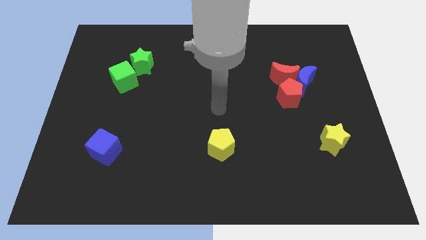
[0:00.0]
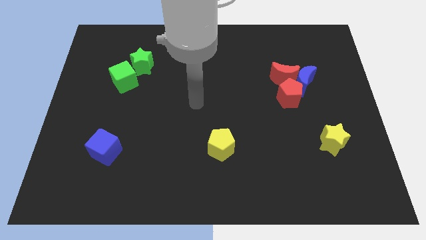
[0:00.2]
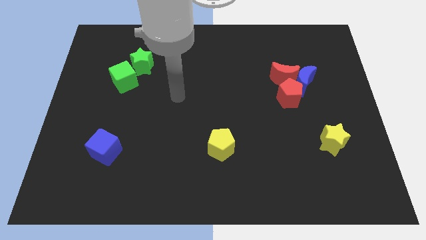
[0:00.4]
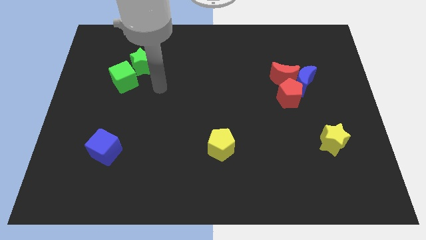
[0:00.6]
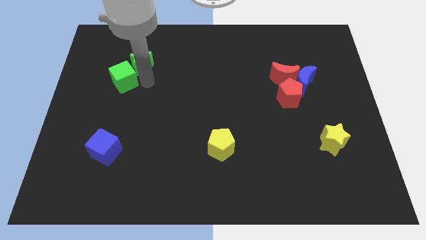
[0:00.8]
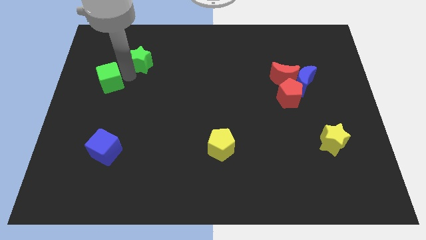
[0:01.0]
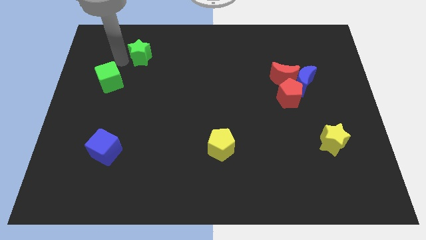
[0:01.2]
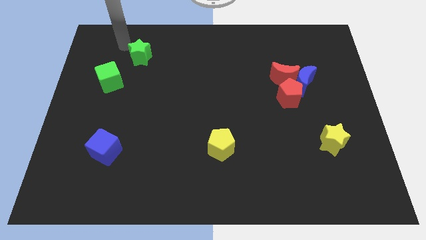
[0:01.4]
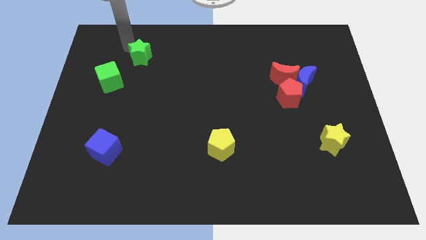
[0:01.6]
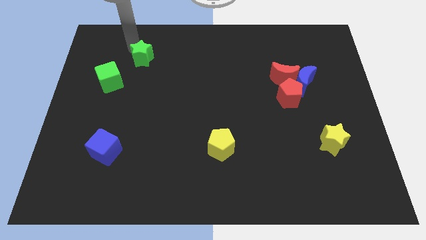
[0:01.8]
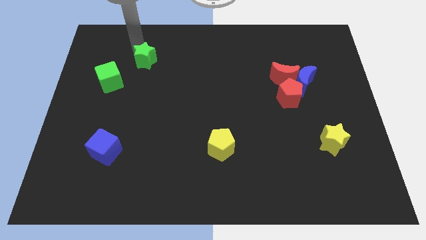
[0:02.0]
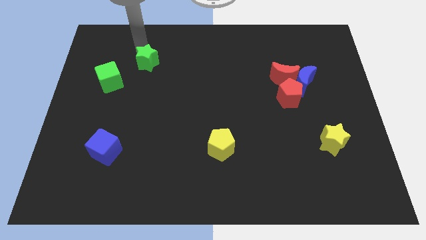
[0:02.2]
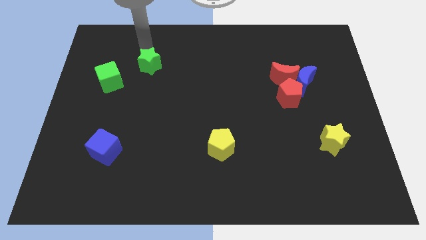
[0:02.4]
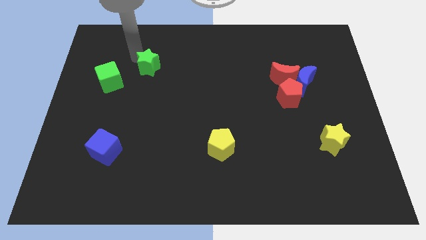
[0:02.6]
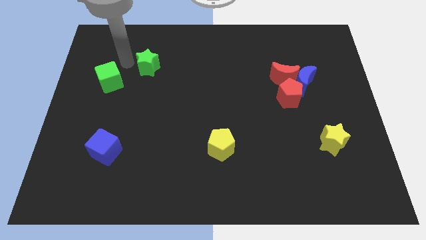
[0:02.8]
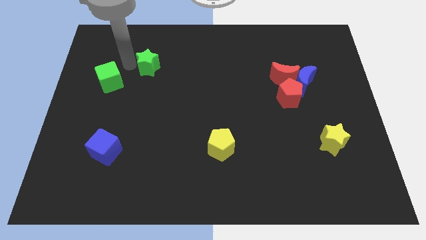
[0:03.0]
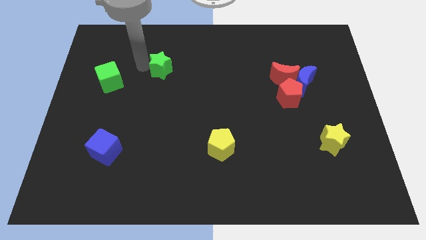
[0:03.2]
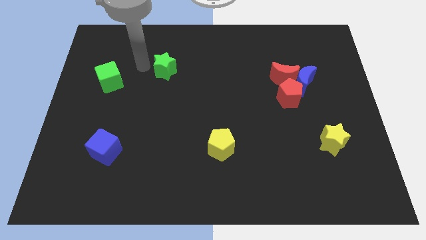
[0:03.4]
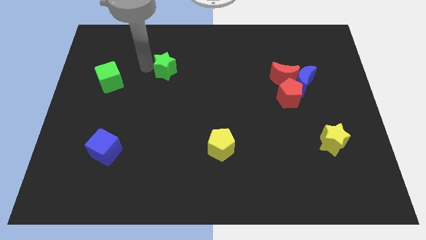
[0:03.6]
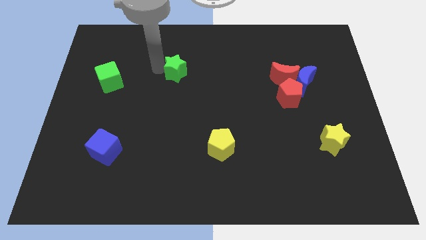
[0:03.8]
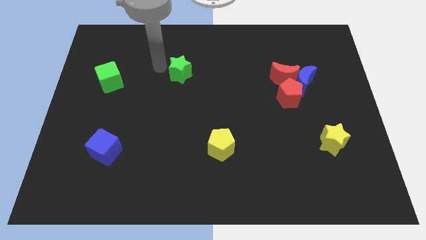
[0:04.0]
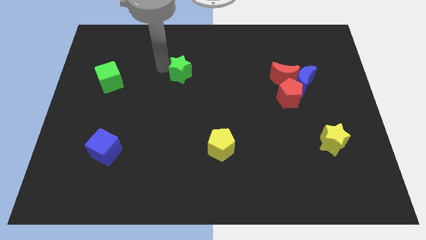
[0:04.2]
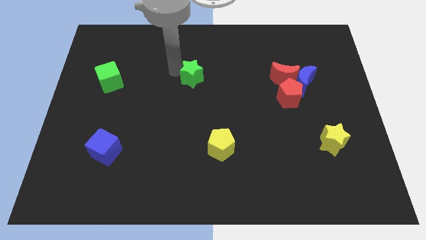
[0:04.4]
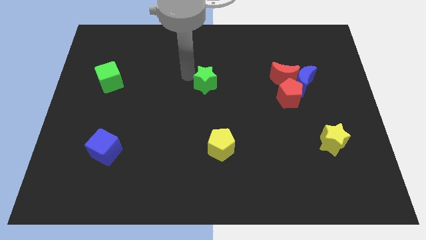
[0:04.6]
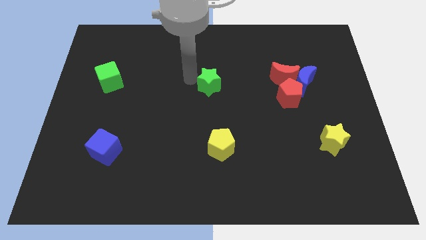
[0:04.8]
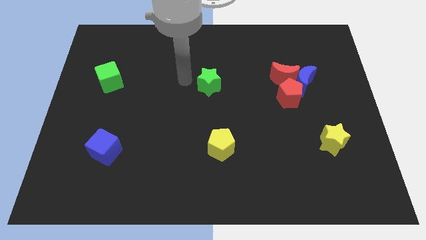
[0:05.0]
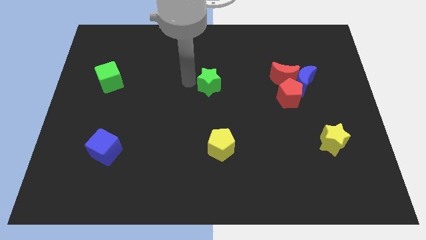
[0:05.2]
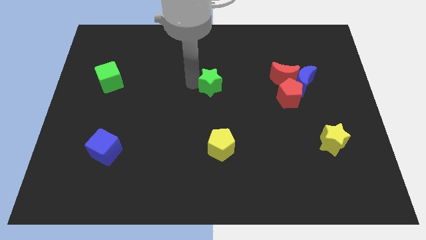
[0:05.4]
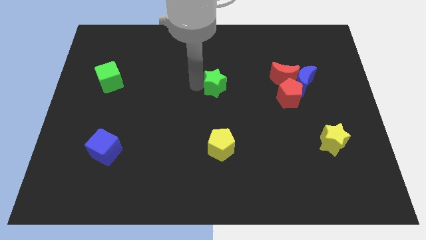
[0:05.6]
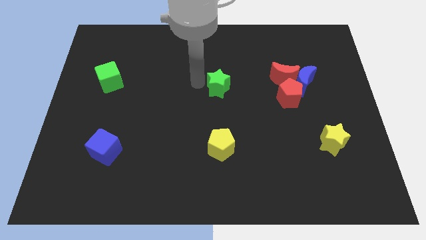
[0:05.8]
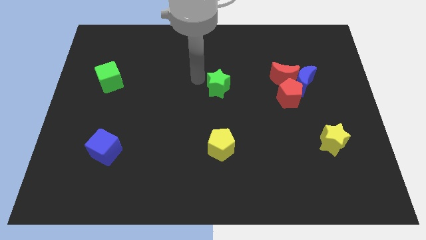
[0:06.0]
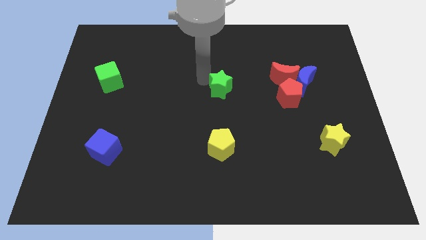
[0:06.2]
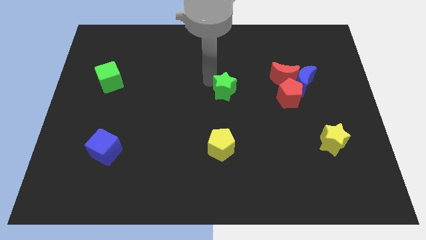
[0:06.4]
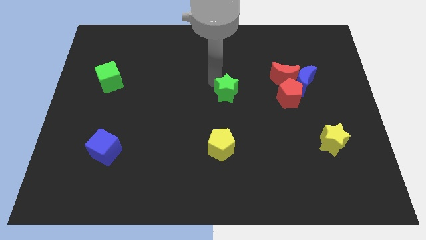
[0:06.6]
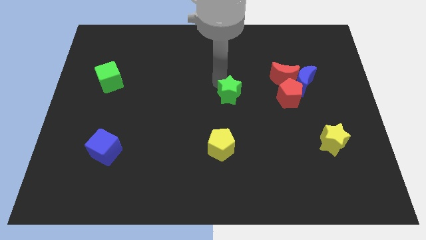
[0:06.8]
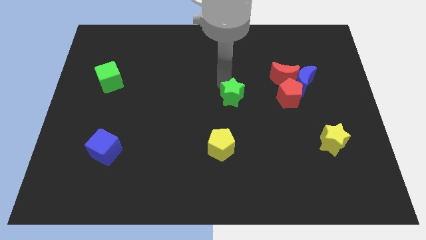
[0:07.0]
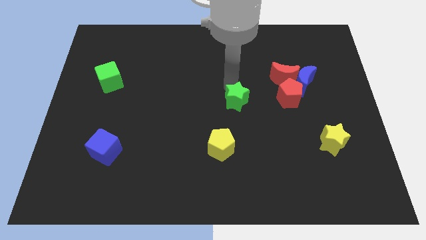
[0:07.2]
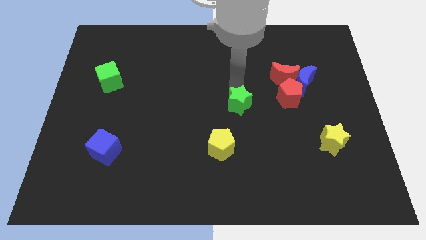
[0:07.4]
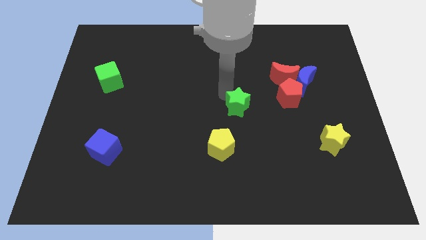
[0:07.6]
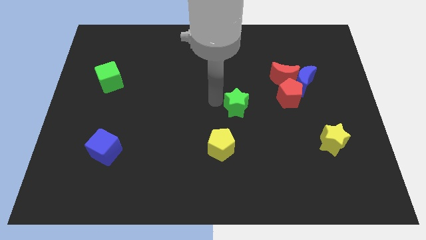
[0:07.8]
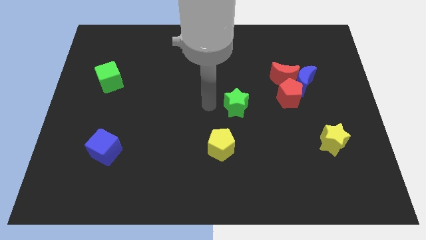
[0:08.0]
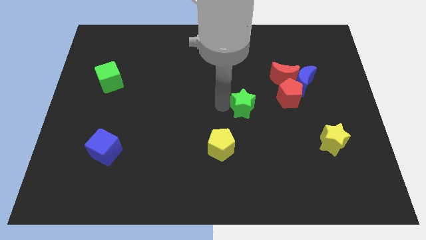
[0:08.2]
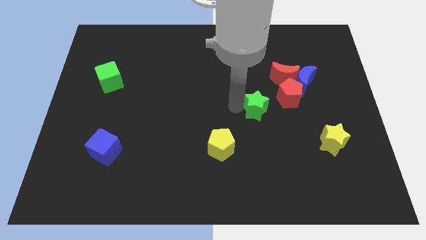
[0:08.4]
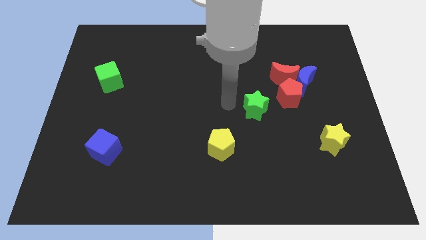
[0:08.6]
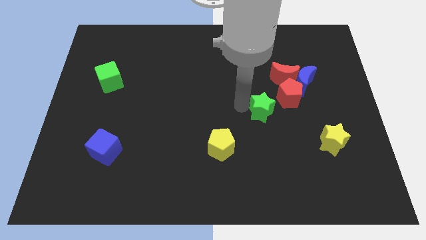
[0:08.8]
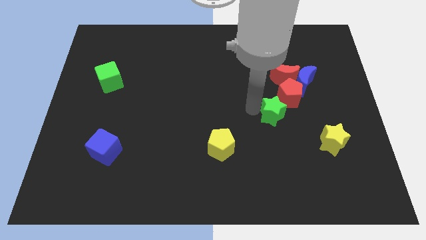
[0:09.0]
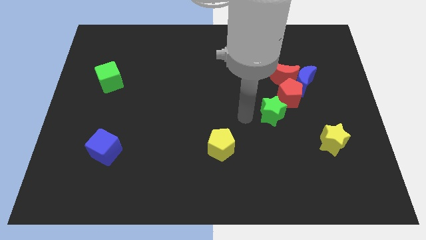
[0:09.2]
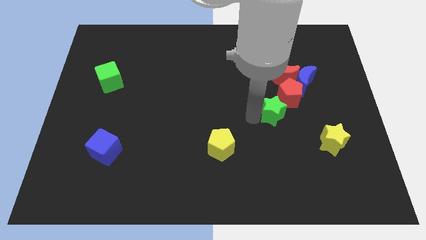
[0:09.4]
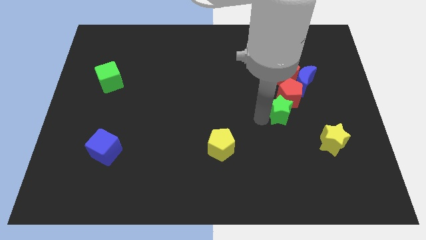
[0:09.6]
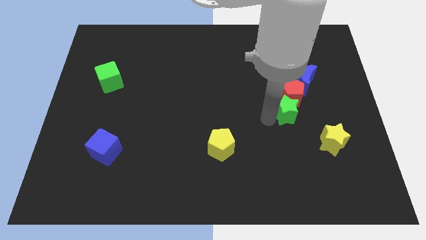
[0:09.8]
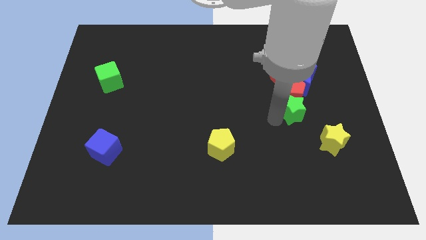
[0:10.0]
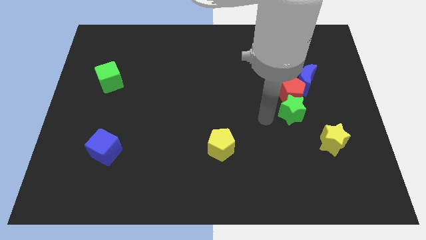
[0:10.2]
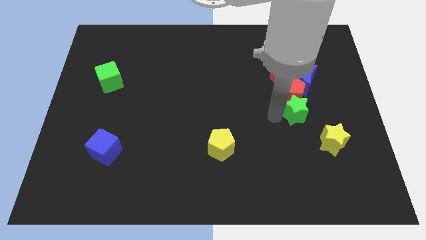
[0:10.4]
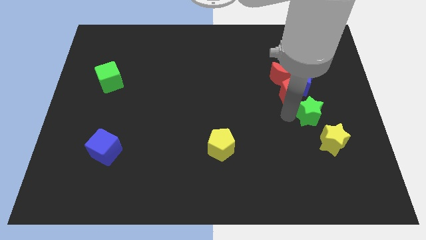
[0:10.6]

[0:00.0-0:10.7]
put the green star above the yellow star

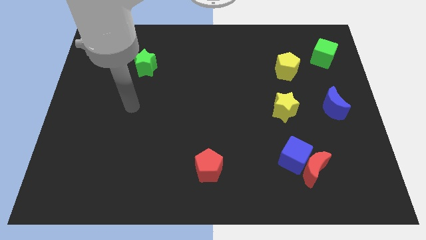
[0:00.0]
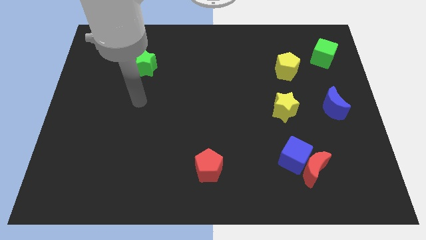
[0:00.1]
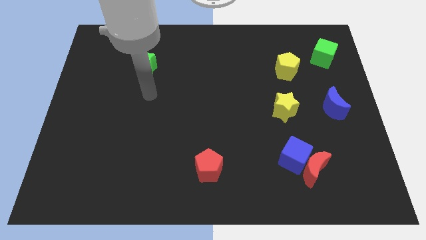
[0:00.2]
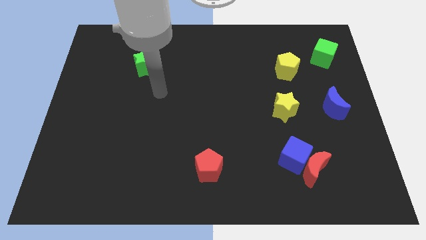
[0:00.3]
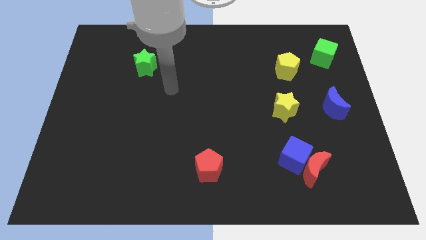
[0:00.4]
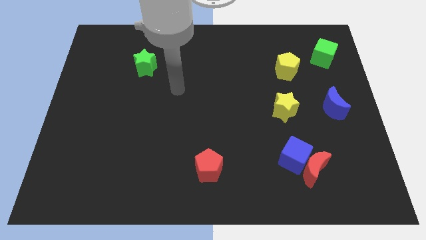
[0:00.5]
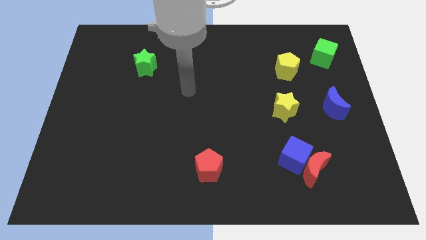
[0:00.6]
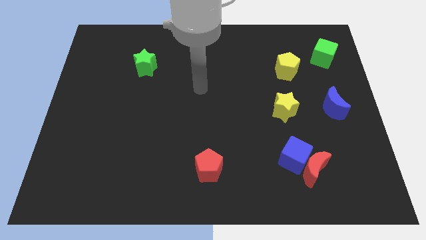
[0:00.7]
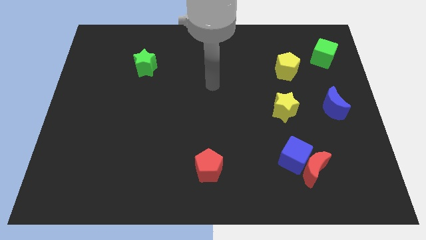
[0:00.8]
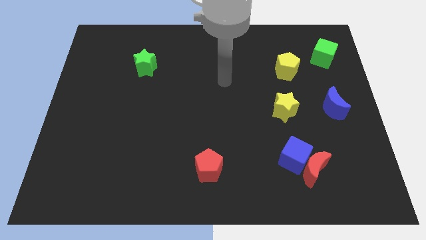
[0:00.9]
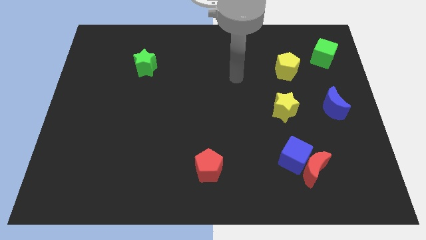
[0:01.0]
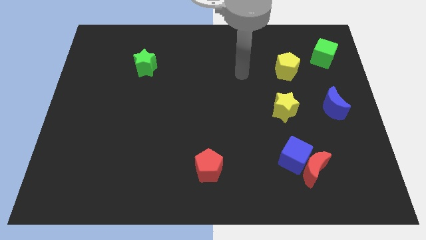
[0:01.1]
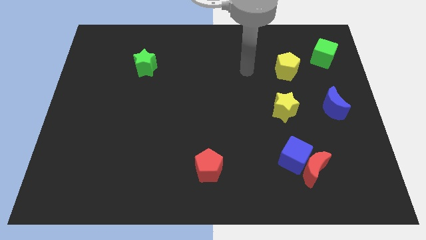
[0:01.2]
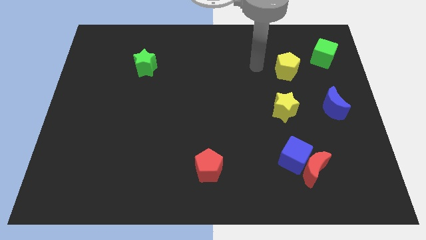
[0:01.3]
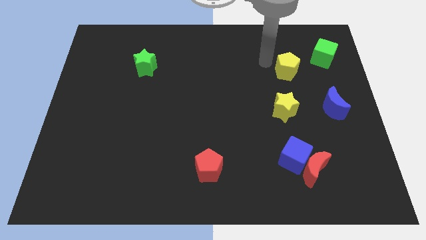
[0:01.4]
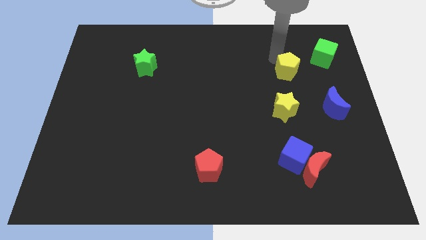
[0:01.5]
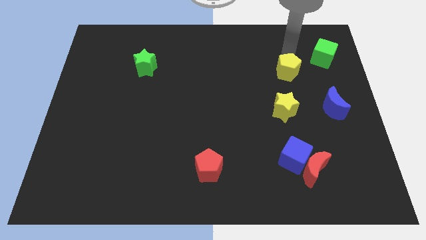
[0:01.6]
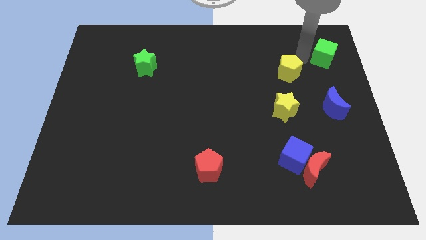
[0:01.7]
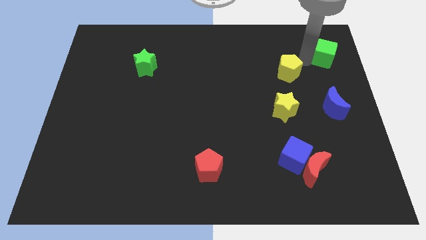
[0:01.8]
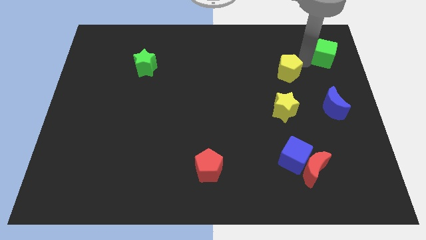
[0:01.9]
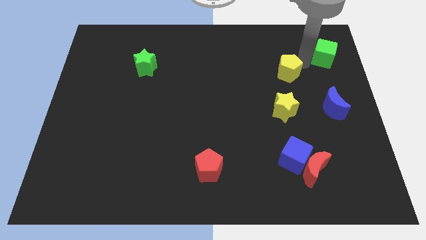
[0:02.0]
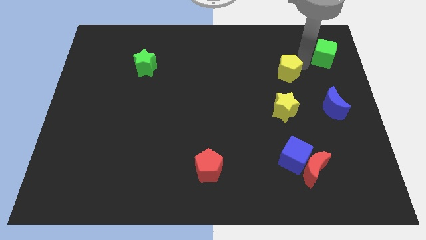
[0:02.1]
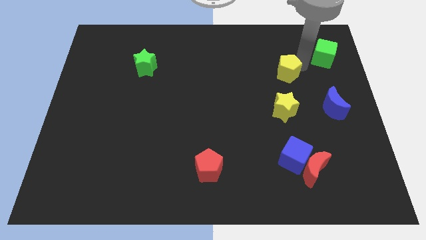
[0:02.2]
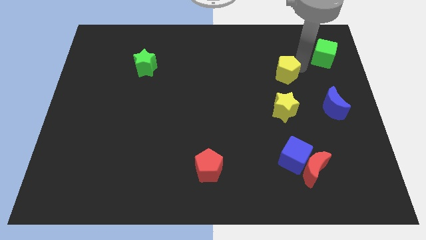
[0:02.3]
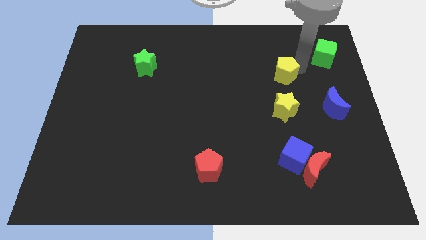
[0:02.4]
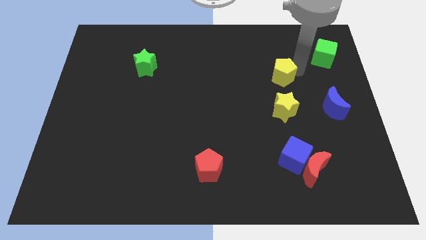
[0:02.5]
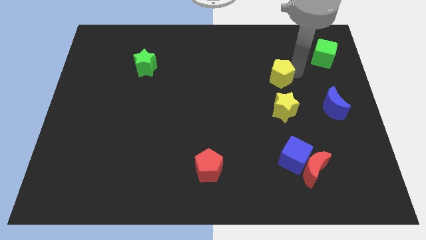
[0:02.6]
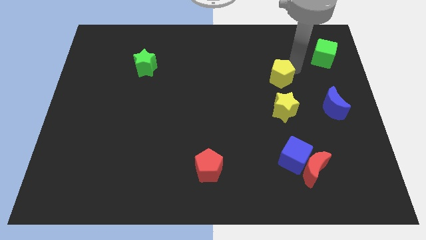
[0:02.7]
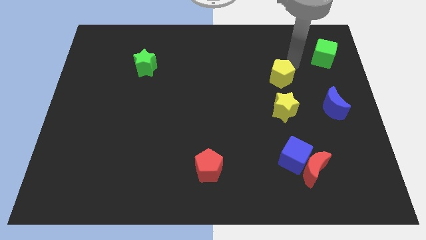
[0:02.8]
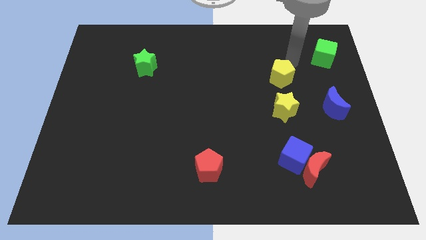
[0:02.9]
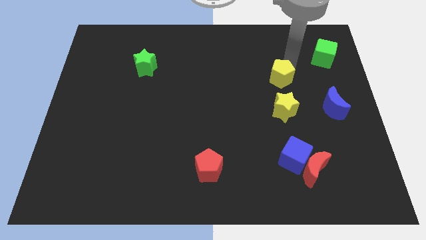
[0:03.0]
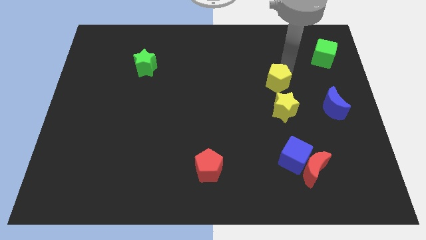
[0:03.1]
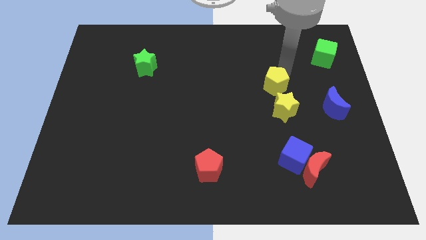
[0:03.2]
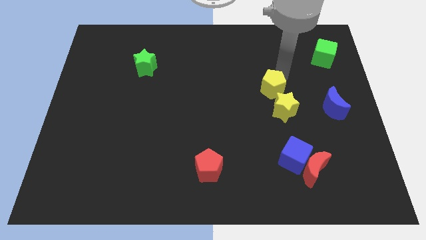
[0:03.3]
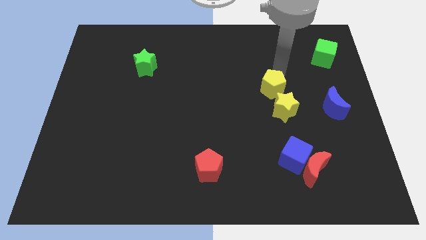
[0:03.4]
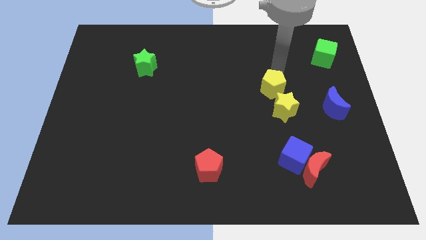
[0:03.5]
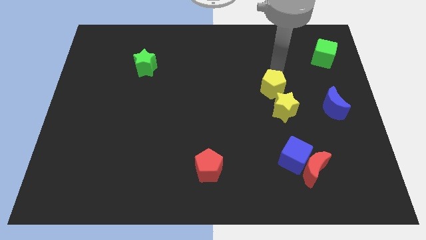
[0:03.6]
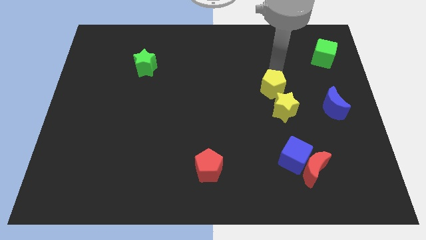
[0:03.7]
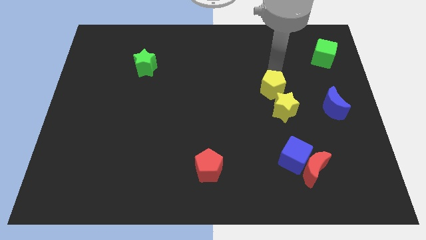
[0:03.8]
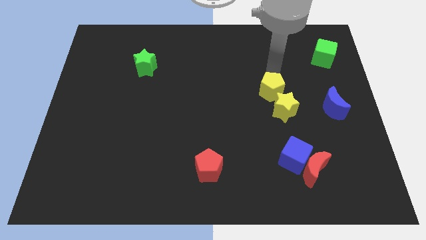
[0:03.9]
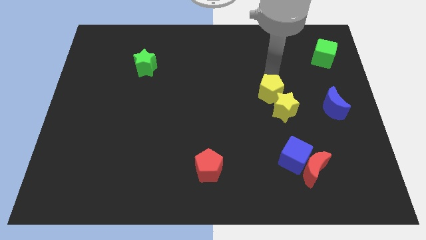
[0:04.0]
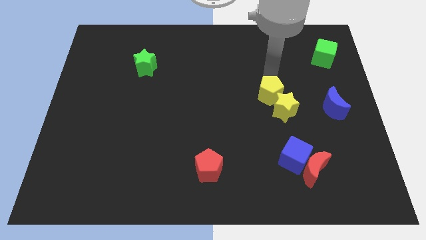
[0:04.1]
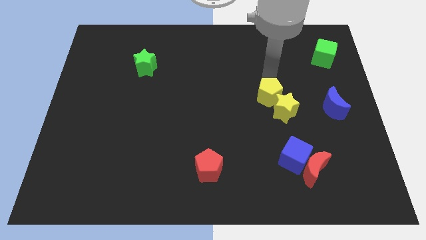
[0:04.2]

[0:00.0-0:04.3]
put the yellow pentagon left of the blue moon
